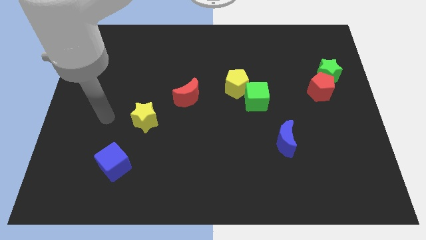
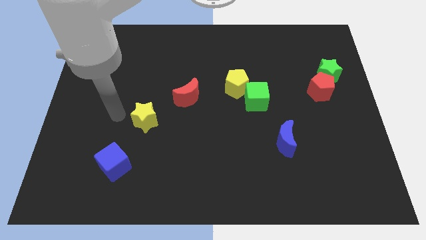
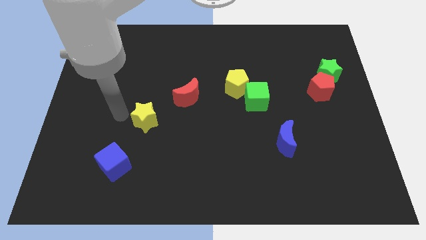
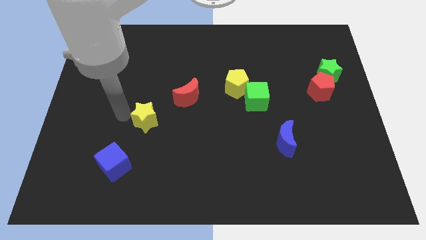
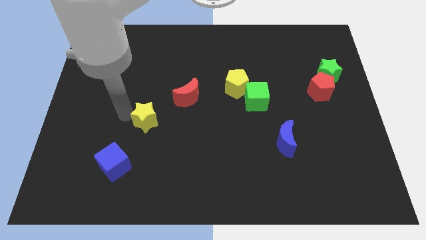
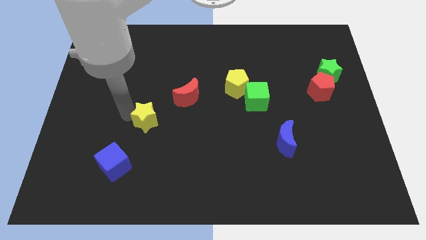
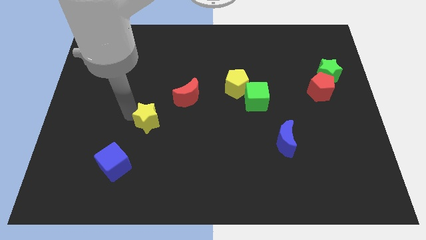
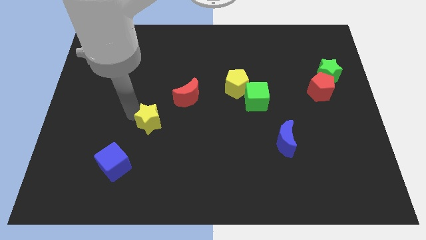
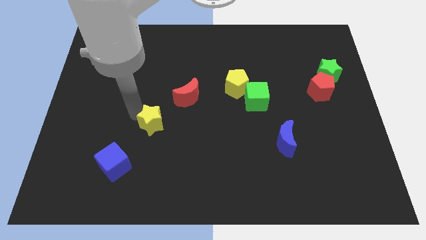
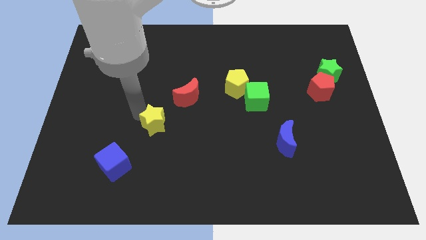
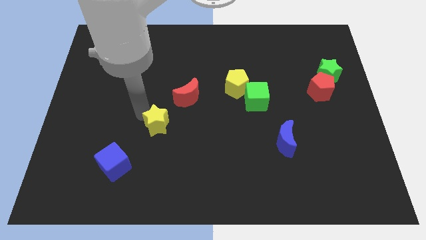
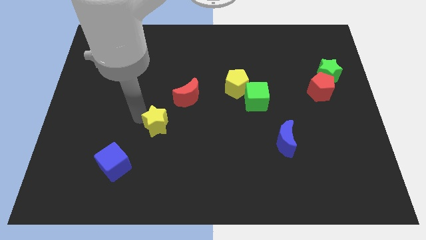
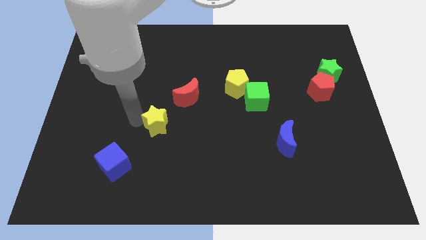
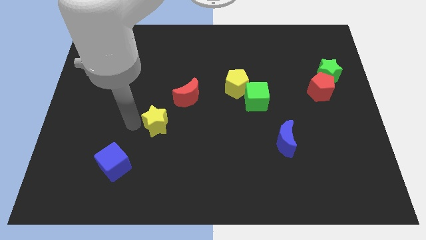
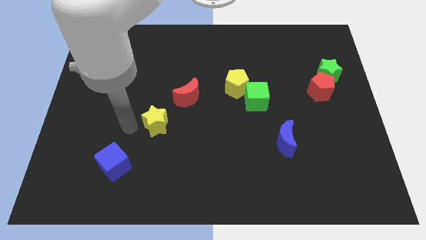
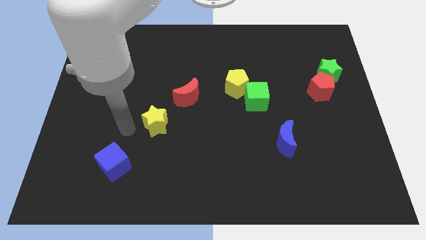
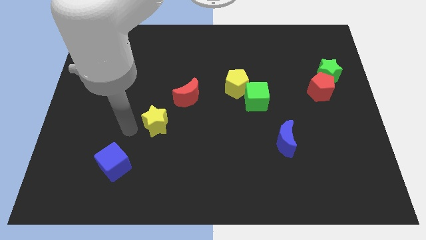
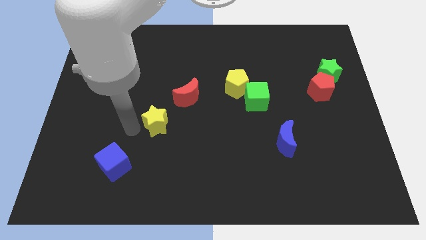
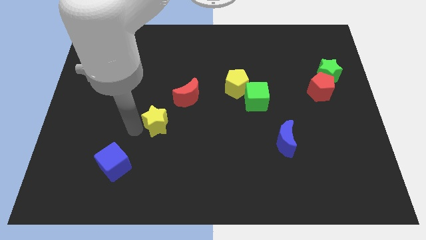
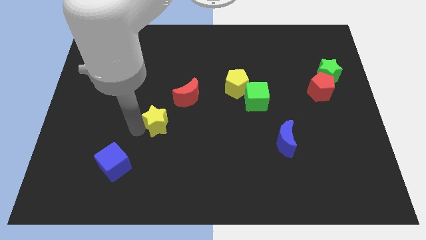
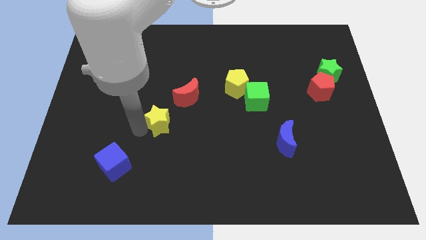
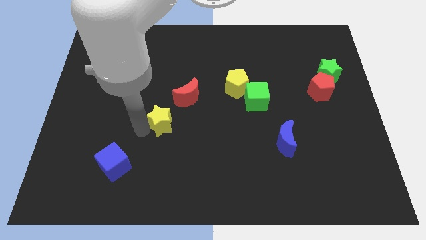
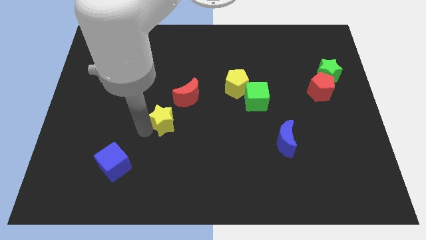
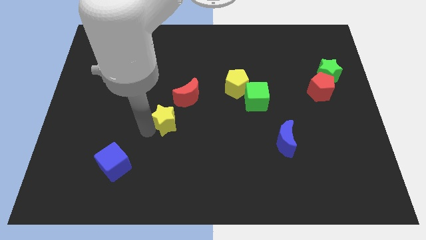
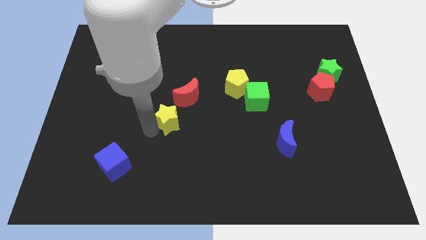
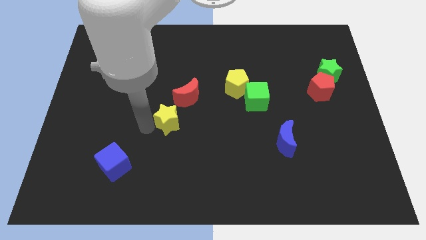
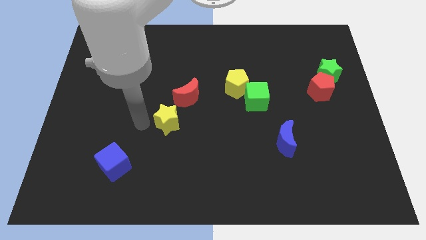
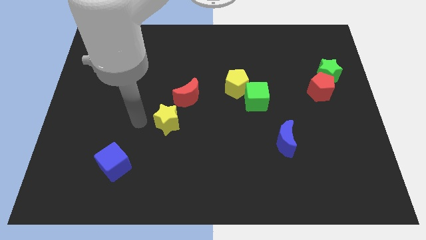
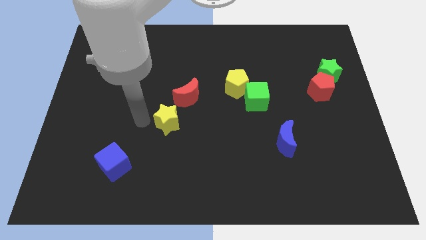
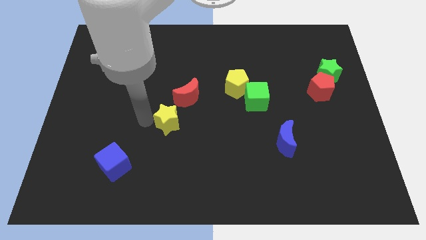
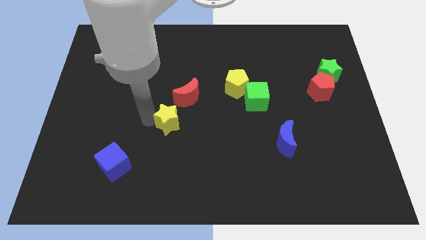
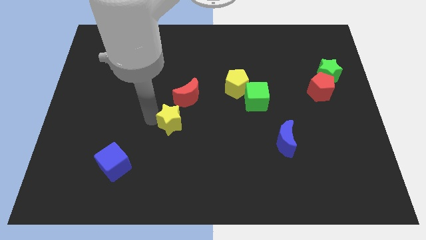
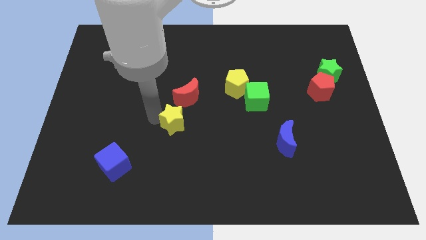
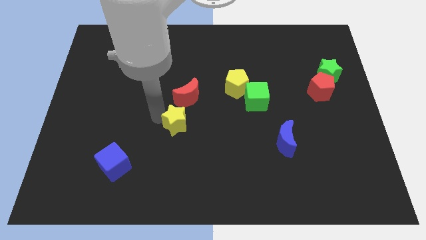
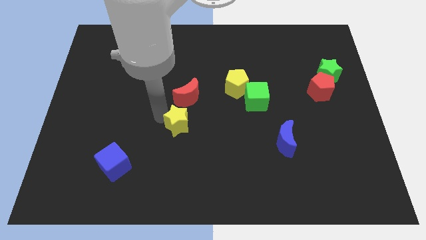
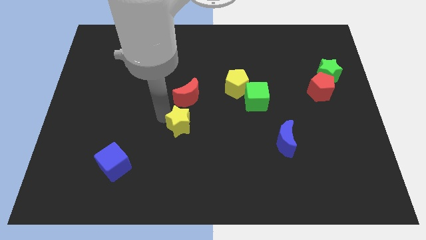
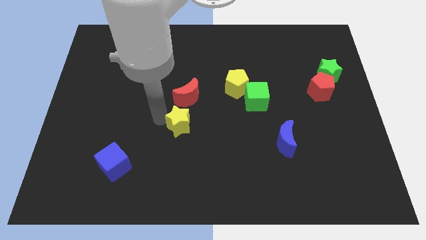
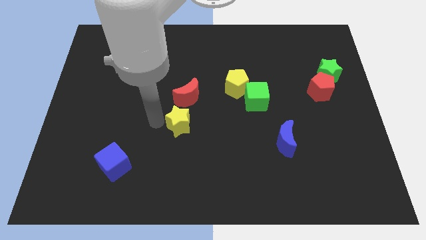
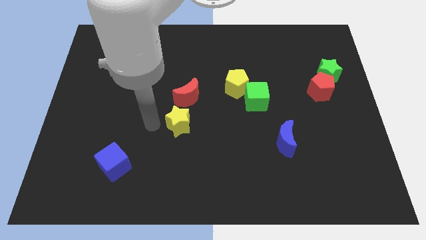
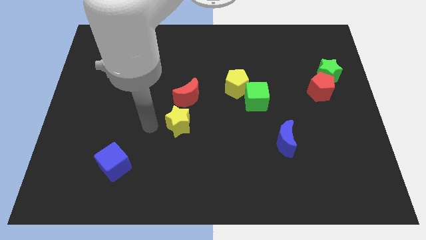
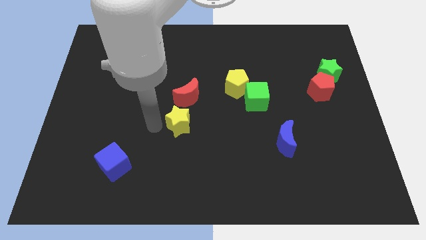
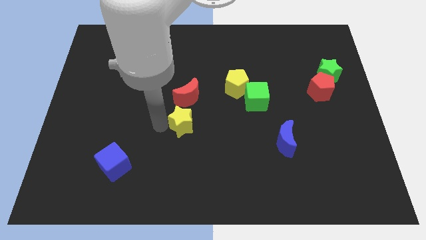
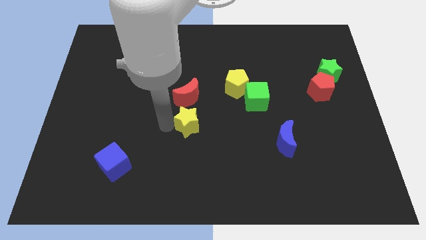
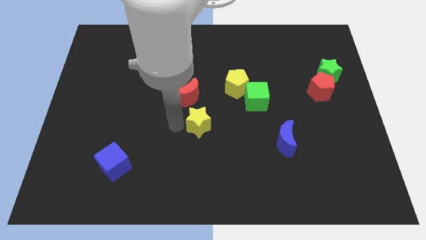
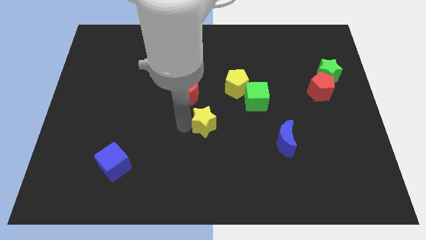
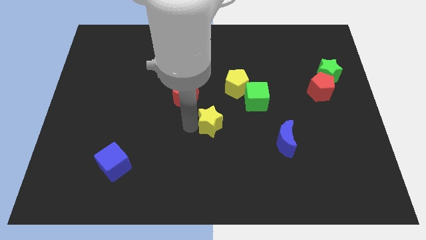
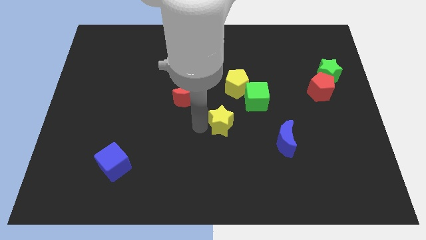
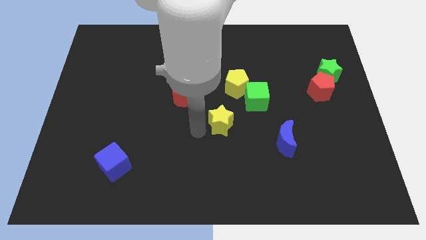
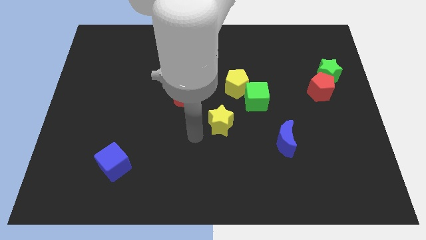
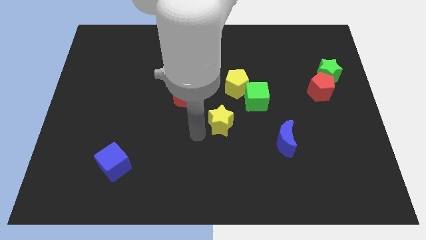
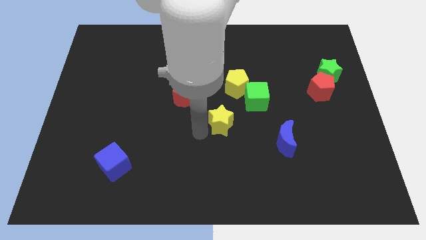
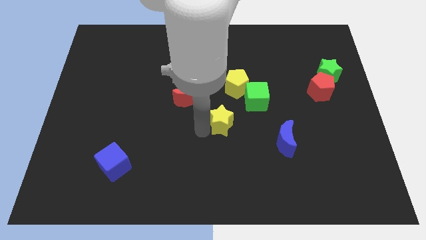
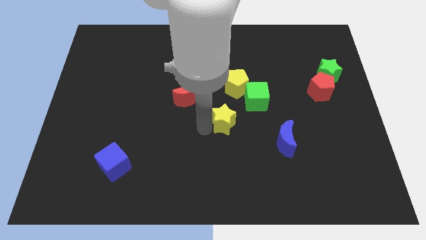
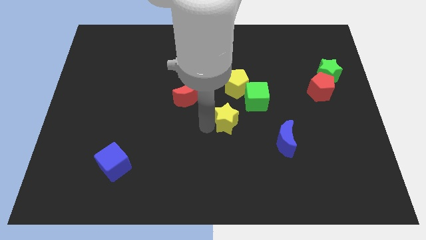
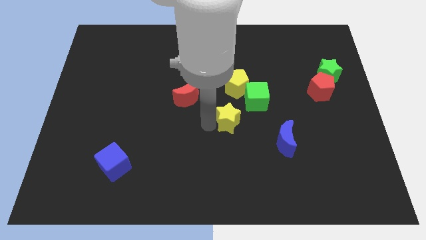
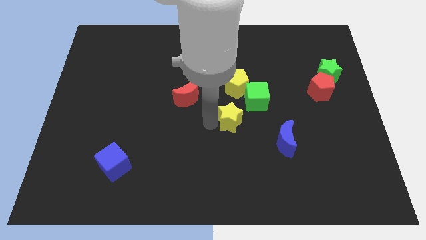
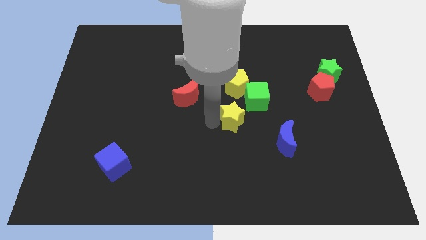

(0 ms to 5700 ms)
push the yellow star to the right

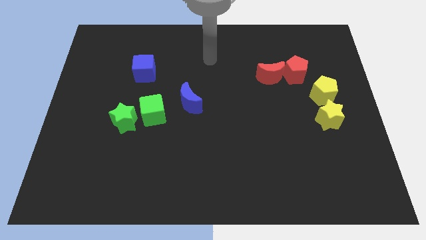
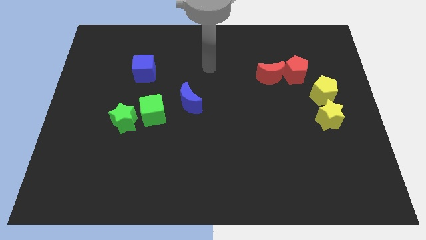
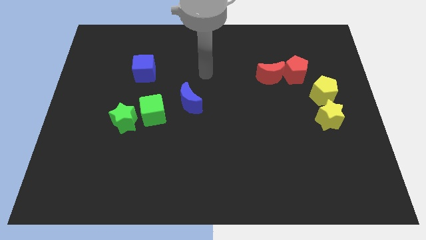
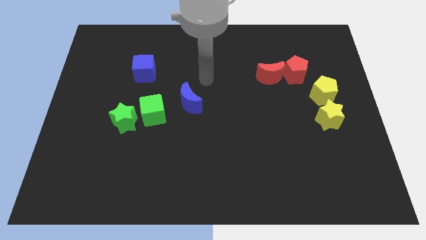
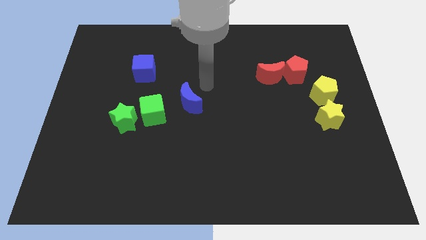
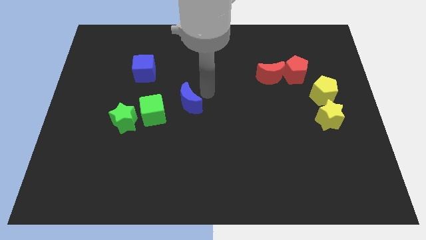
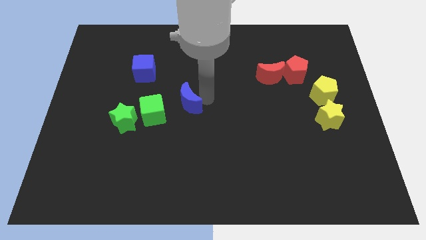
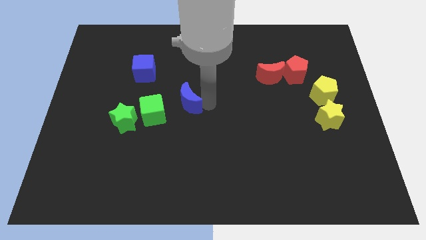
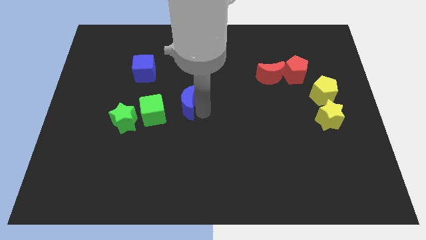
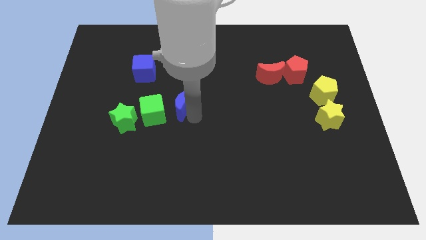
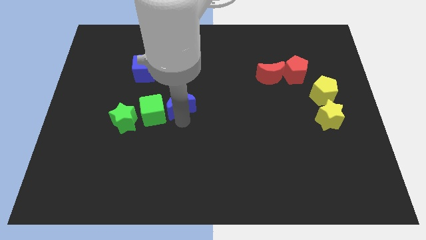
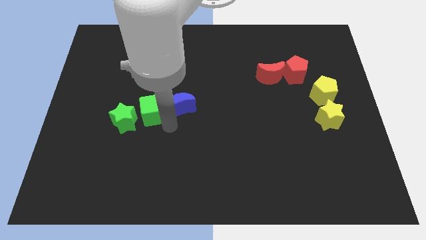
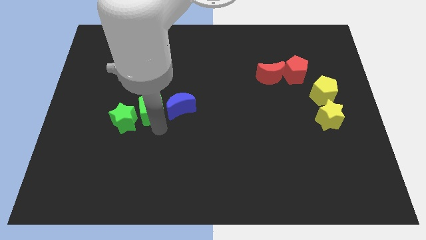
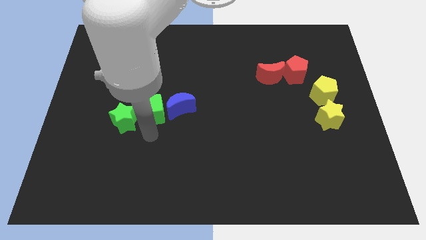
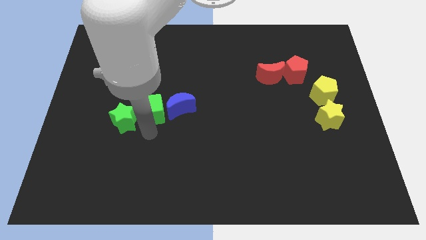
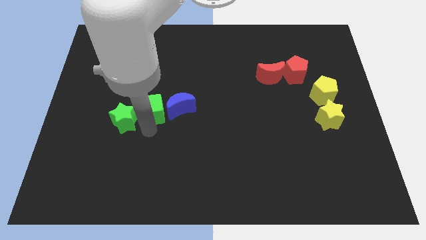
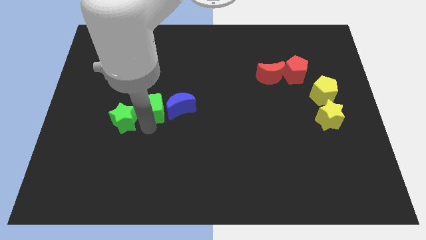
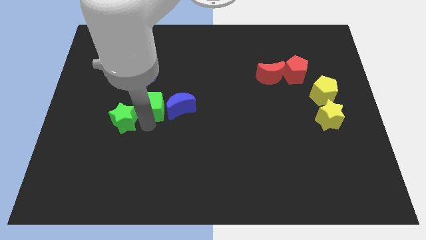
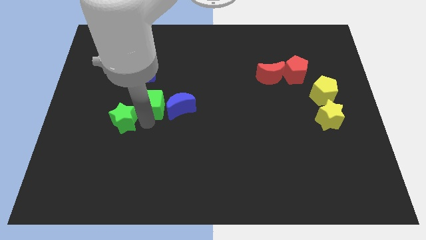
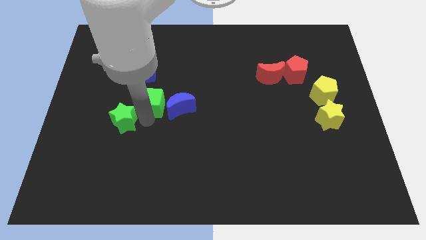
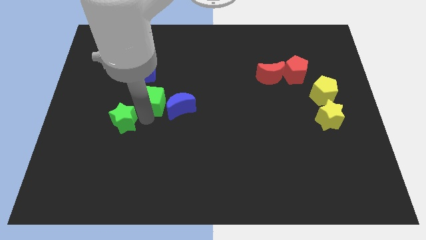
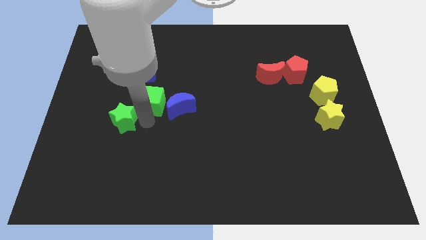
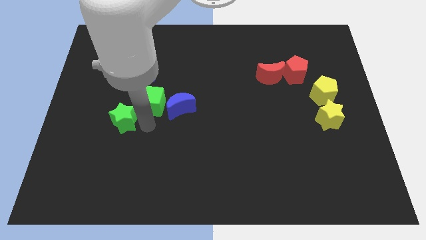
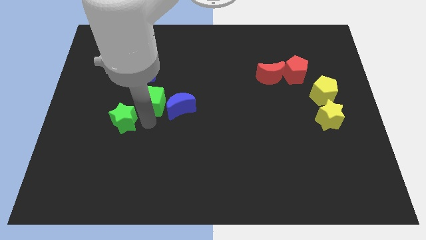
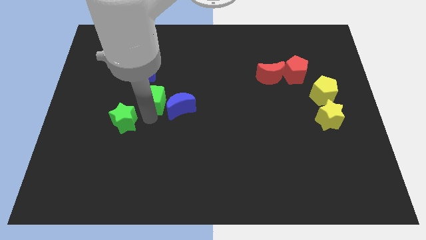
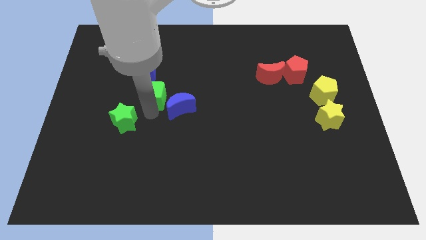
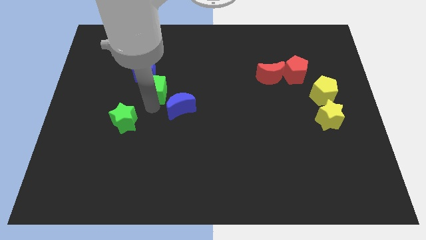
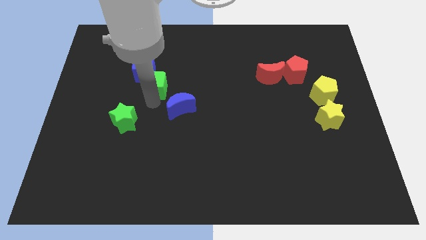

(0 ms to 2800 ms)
slightly push the green cube up
